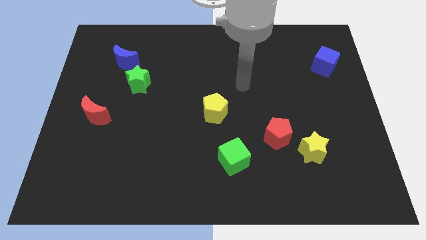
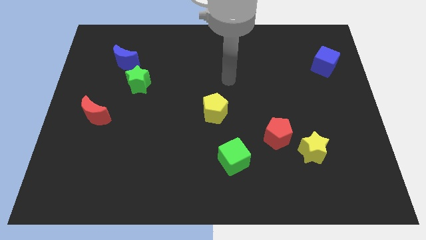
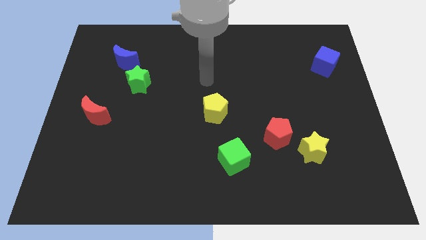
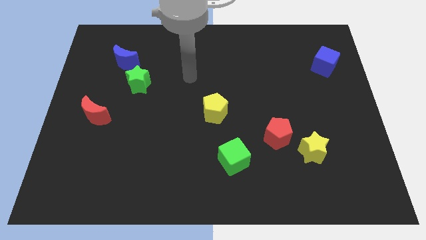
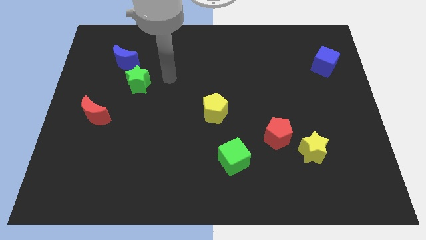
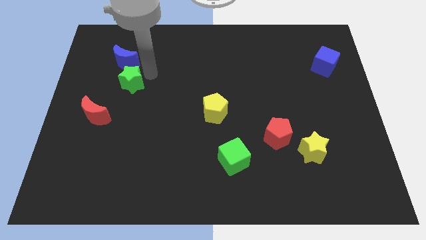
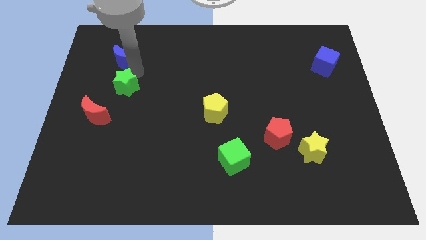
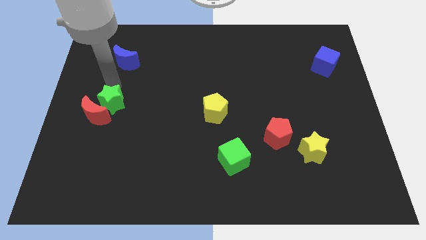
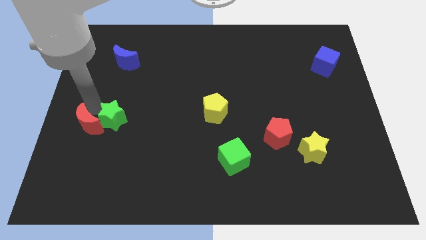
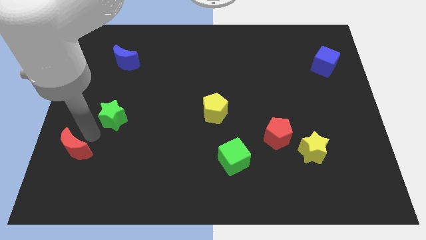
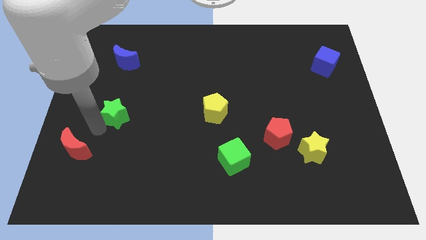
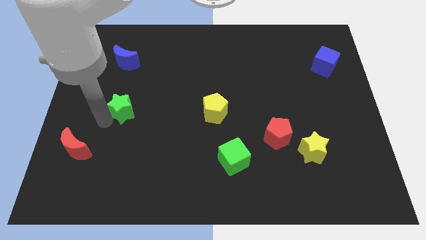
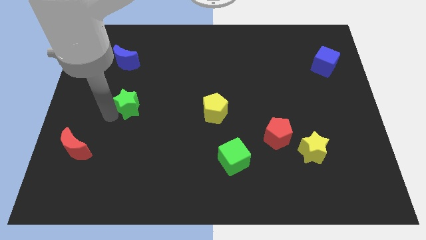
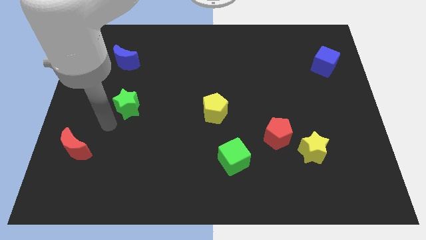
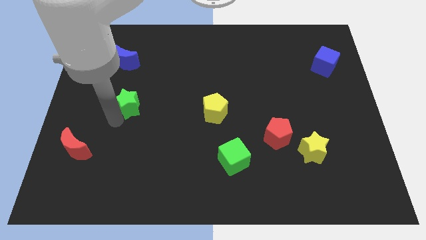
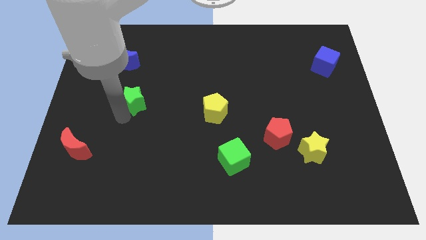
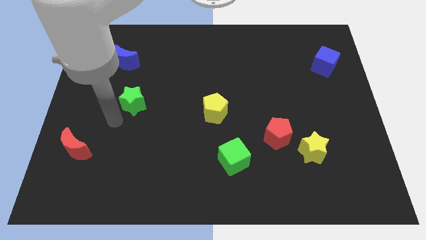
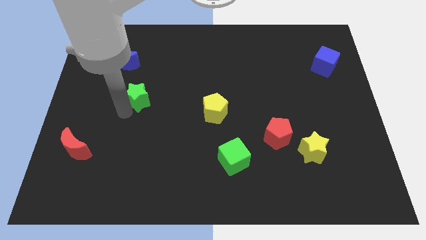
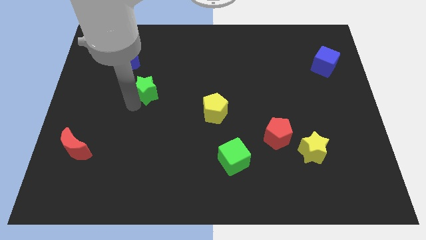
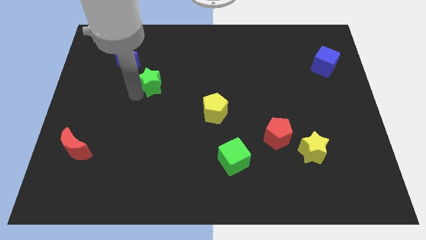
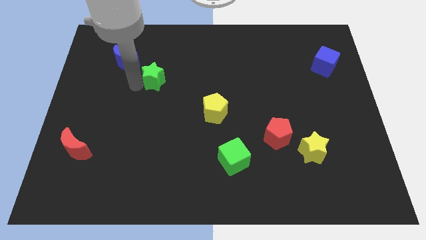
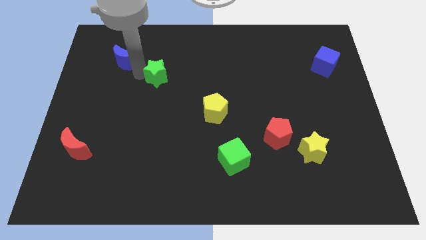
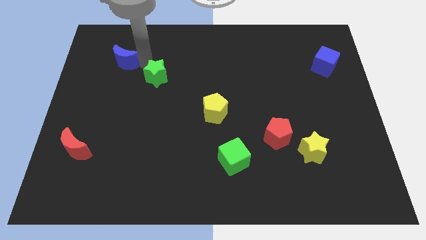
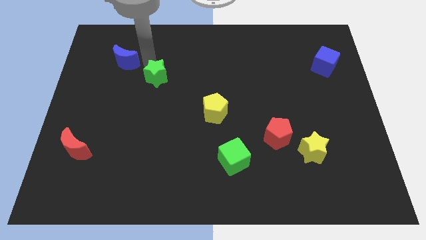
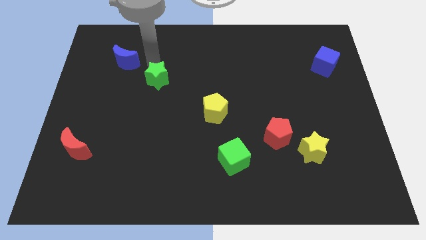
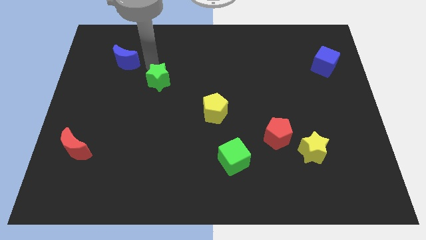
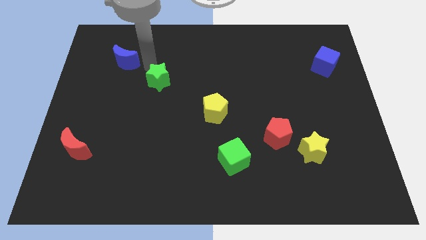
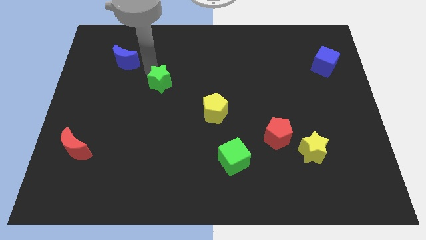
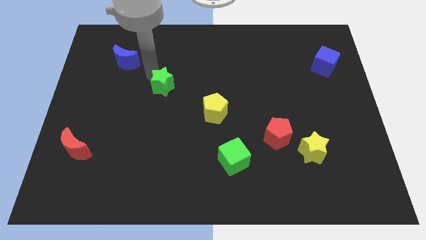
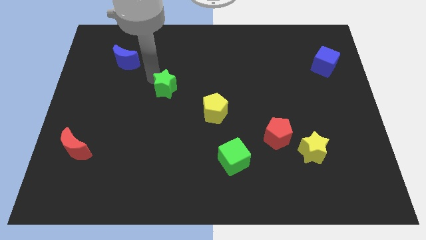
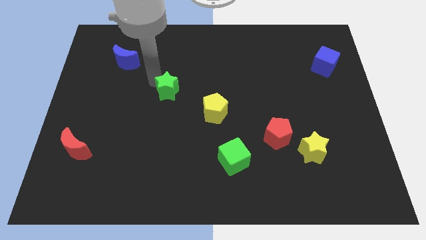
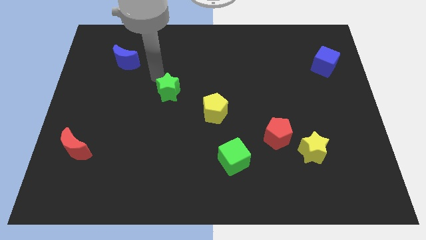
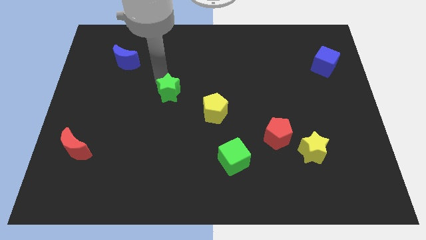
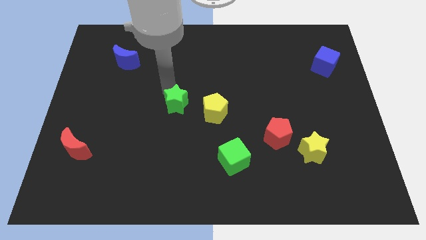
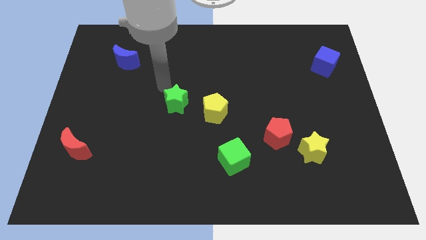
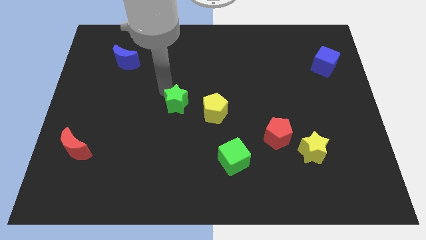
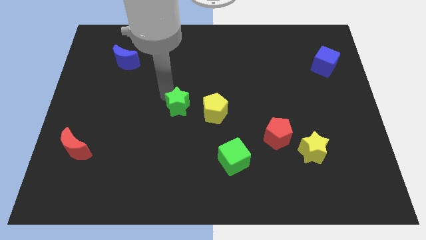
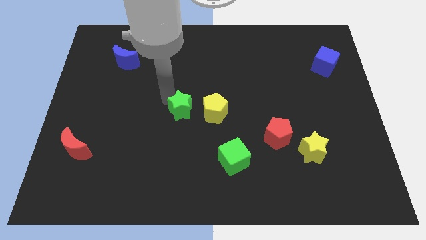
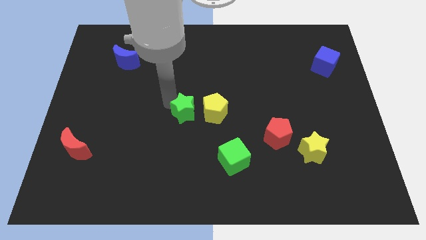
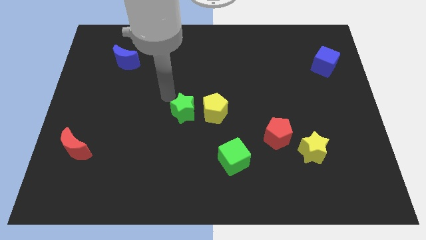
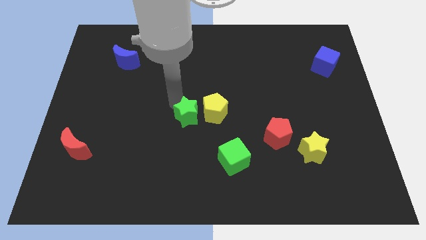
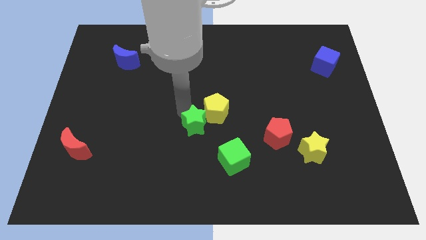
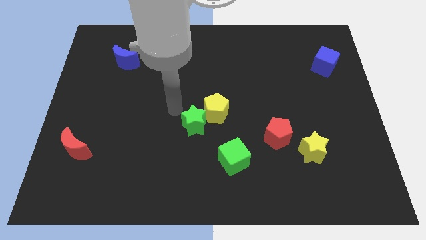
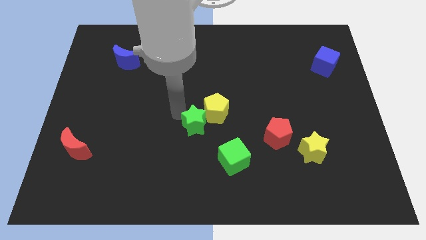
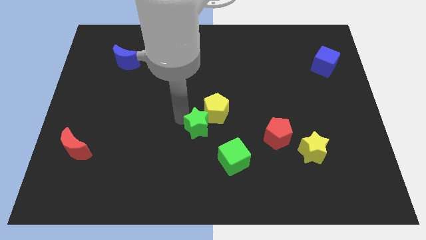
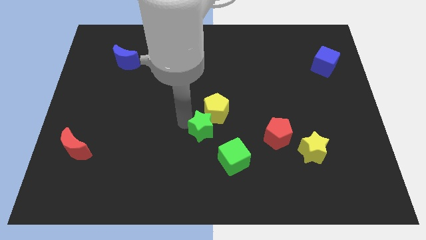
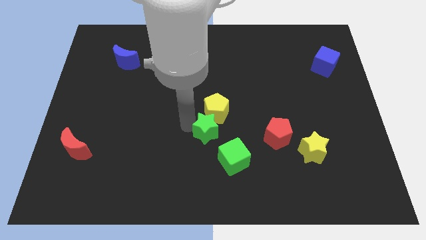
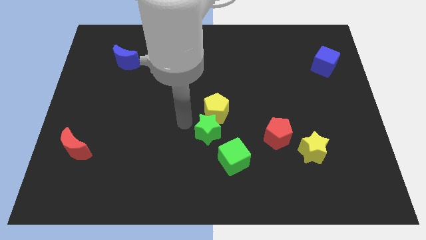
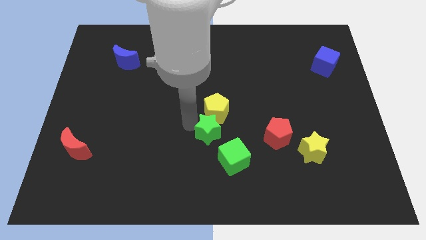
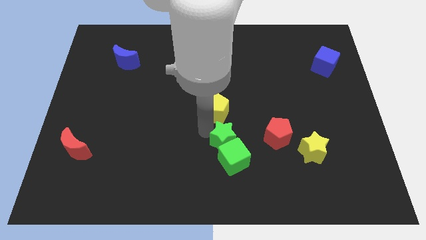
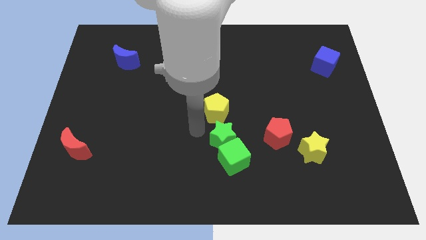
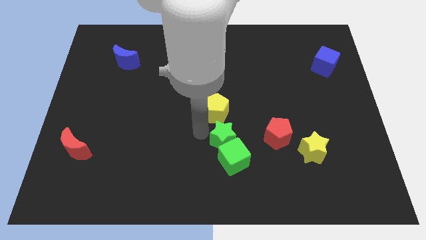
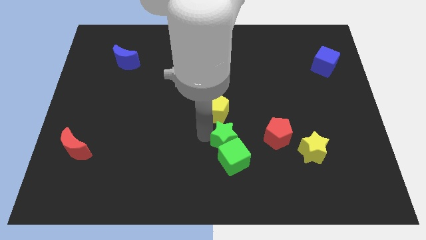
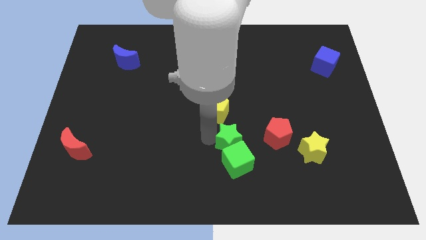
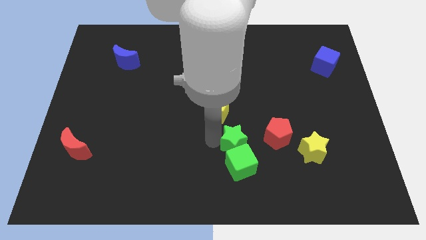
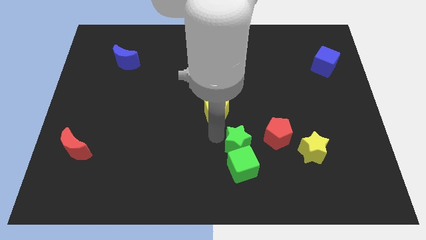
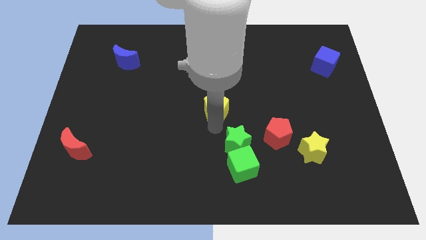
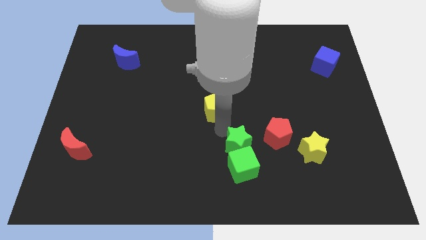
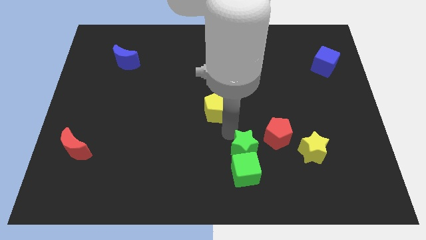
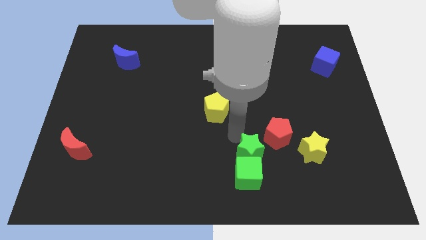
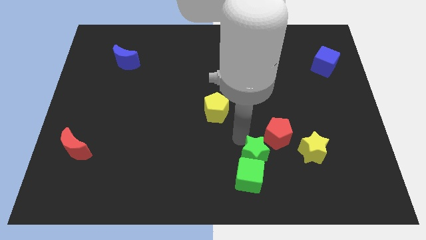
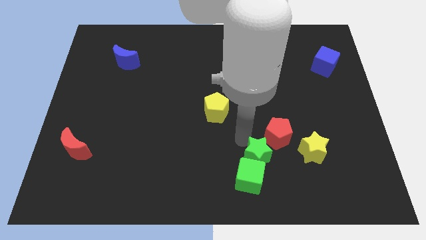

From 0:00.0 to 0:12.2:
push the green star below the red pentagon
